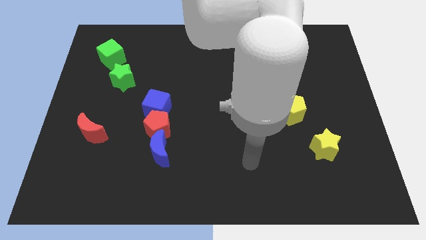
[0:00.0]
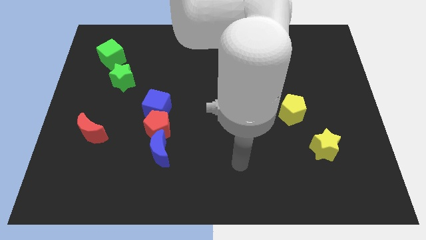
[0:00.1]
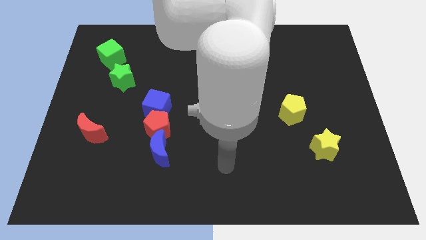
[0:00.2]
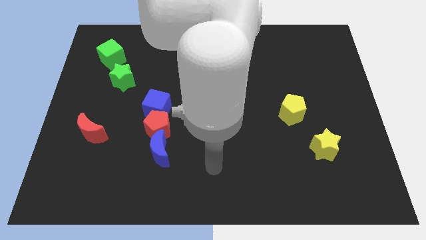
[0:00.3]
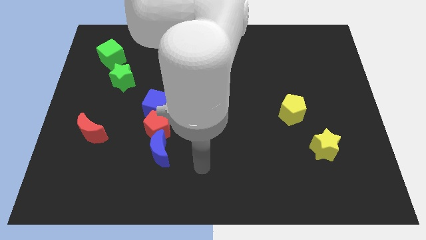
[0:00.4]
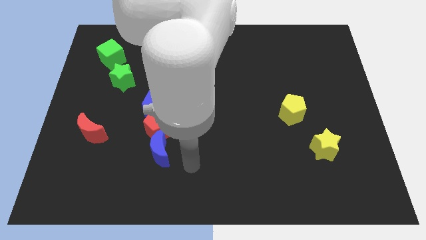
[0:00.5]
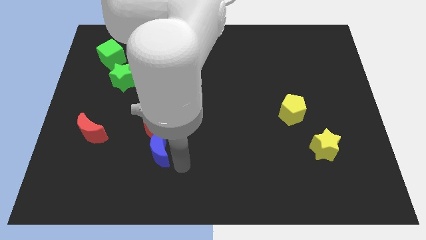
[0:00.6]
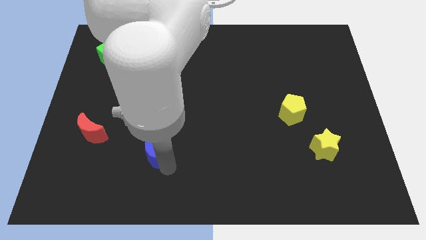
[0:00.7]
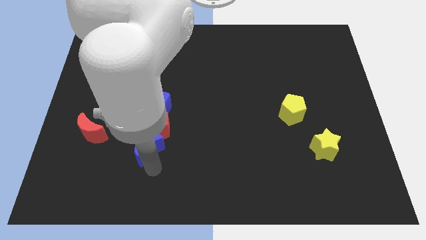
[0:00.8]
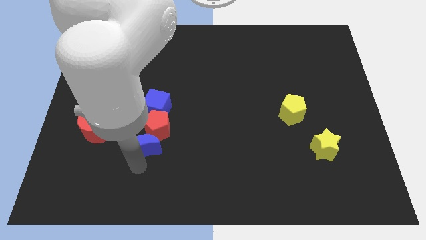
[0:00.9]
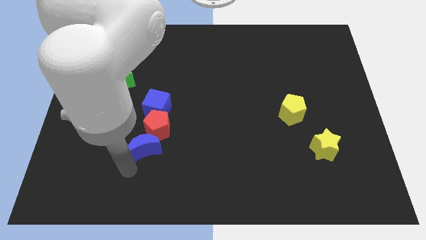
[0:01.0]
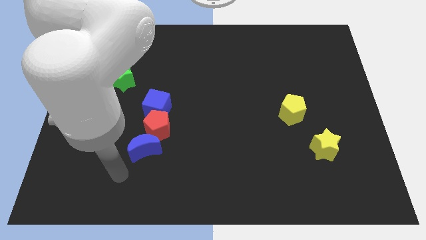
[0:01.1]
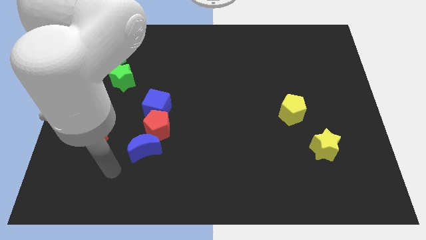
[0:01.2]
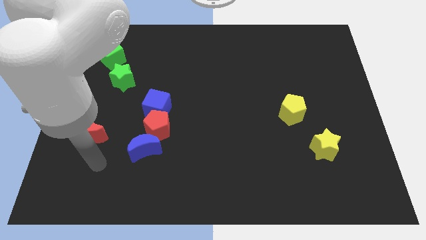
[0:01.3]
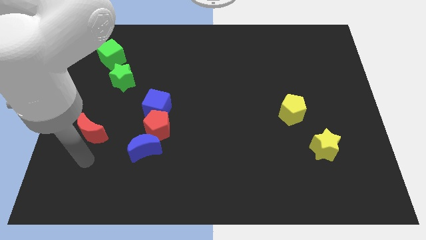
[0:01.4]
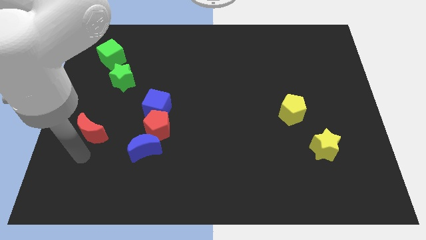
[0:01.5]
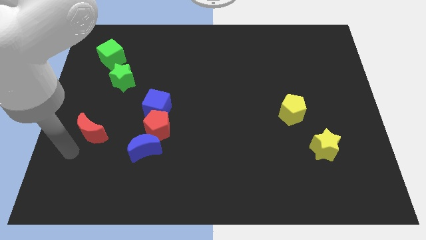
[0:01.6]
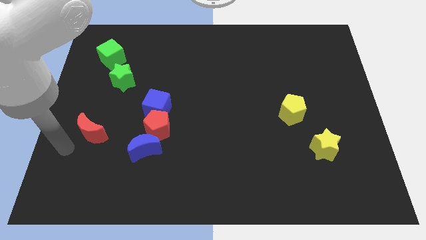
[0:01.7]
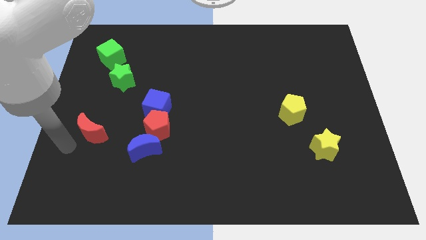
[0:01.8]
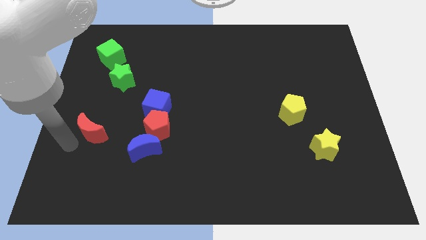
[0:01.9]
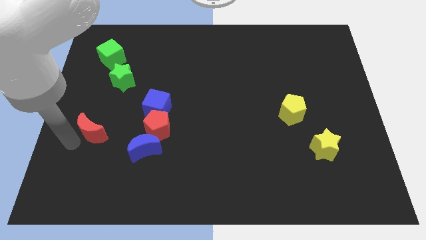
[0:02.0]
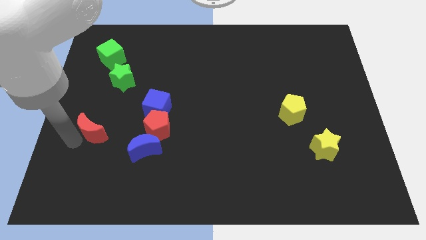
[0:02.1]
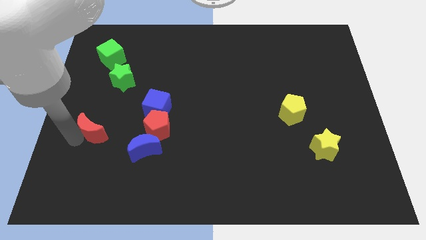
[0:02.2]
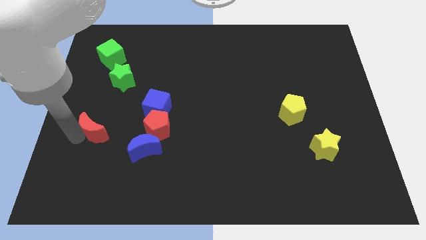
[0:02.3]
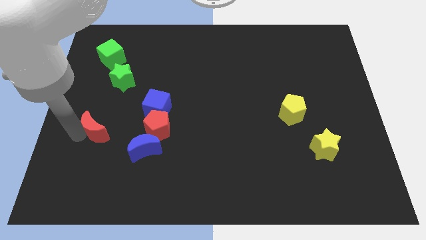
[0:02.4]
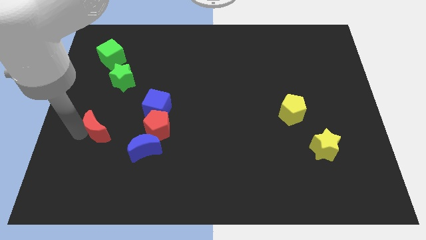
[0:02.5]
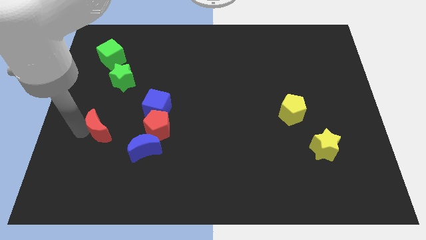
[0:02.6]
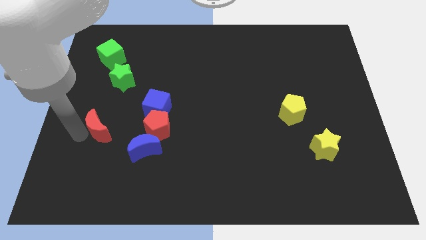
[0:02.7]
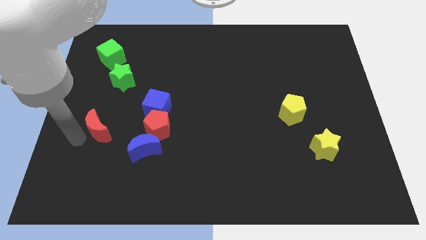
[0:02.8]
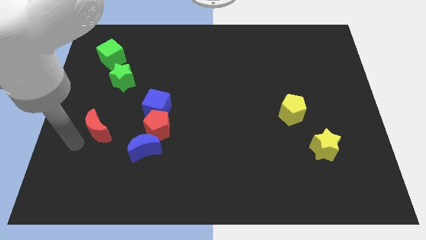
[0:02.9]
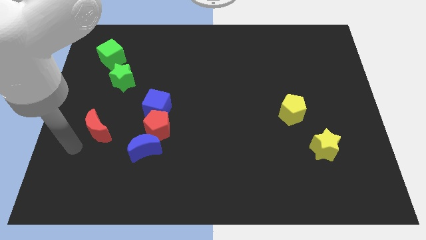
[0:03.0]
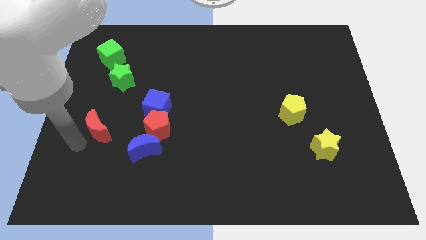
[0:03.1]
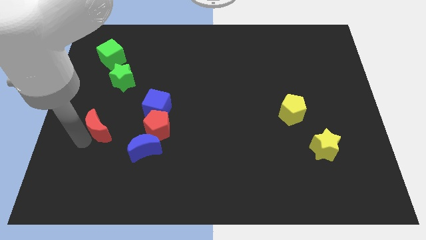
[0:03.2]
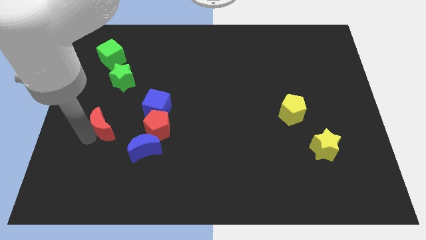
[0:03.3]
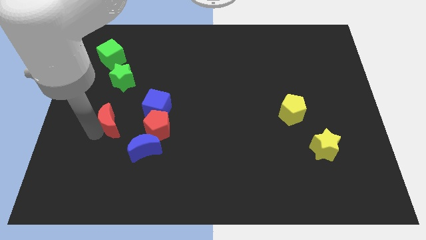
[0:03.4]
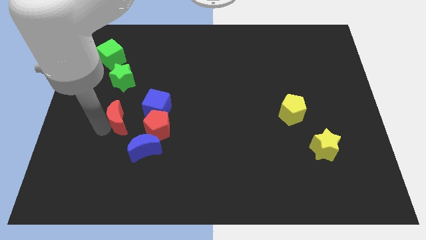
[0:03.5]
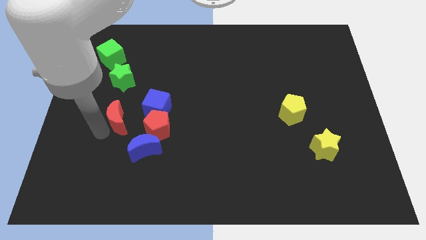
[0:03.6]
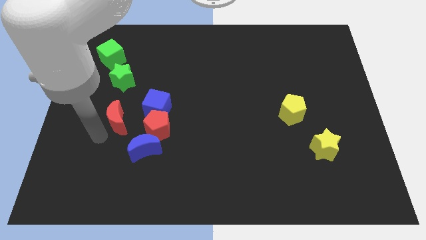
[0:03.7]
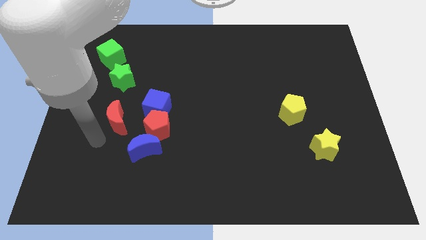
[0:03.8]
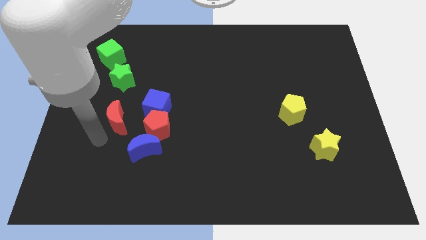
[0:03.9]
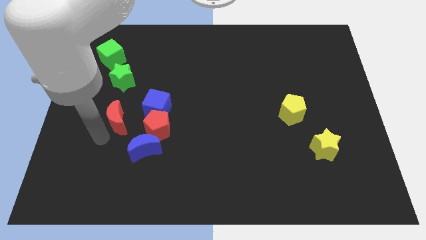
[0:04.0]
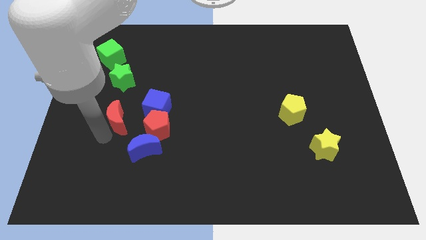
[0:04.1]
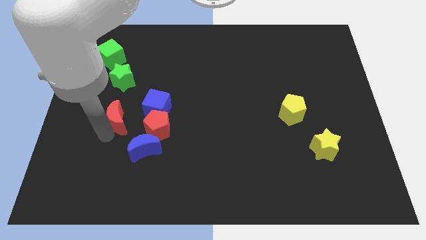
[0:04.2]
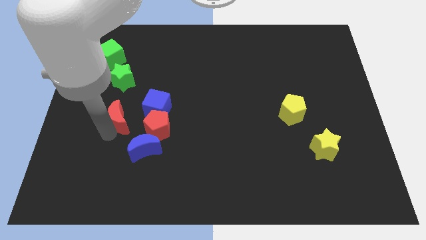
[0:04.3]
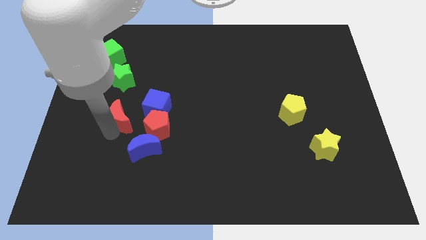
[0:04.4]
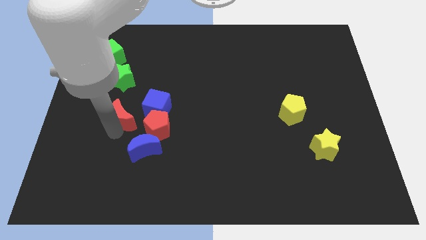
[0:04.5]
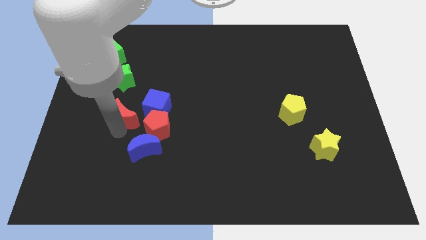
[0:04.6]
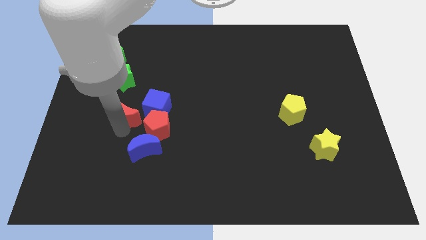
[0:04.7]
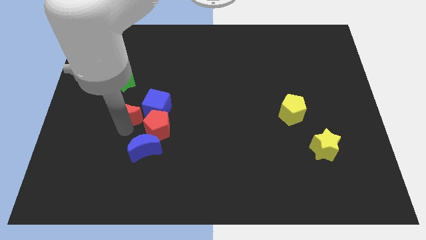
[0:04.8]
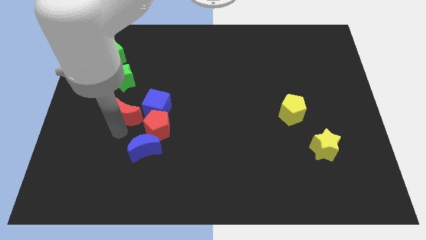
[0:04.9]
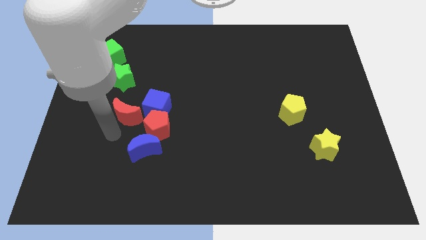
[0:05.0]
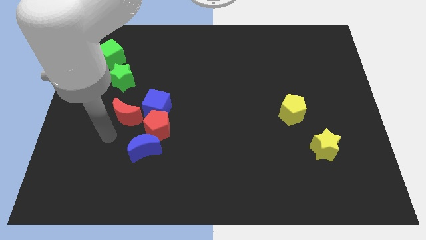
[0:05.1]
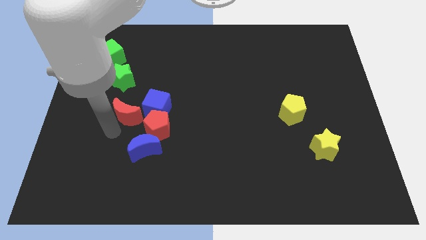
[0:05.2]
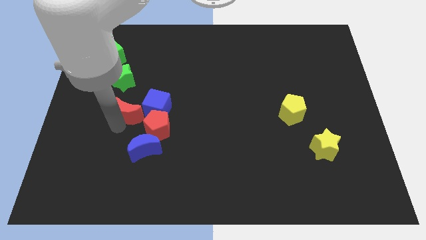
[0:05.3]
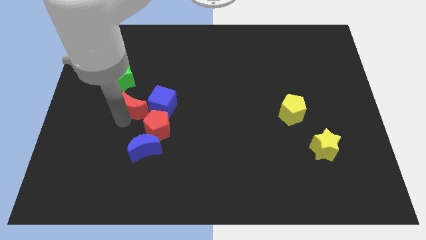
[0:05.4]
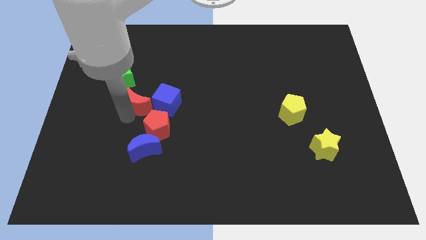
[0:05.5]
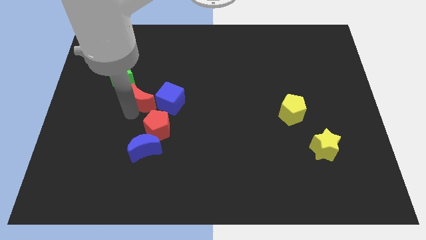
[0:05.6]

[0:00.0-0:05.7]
put the red moon to the top side of the red pentagon
